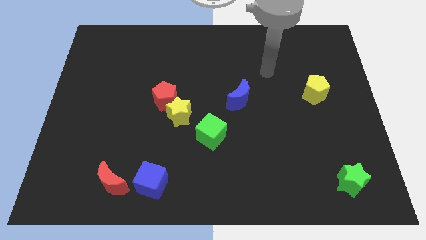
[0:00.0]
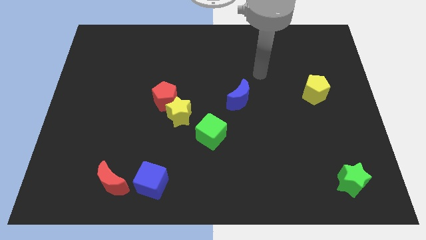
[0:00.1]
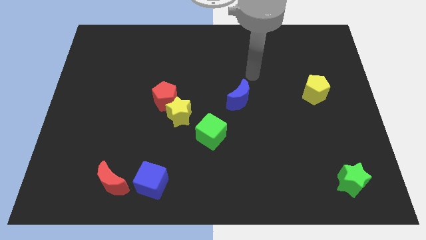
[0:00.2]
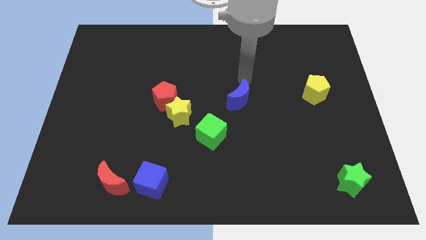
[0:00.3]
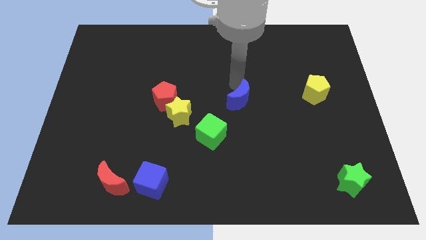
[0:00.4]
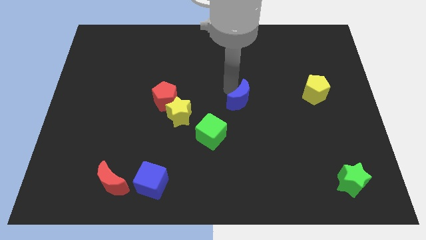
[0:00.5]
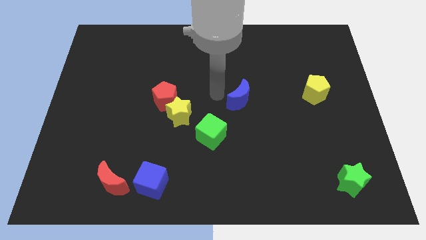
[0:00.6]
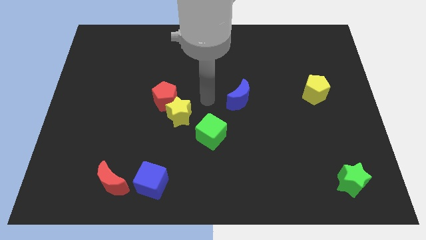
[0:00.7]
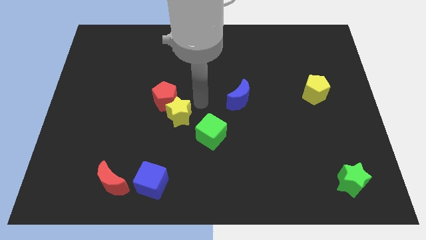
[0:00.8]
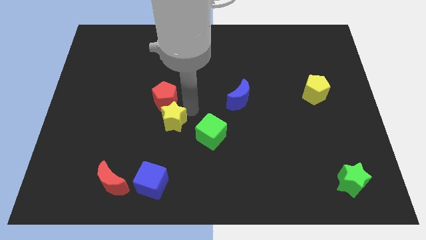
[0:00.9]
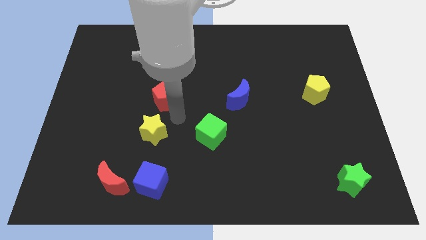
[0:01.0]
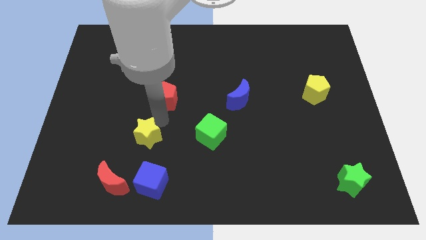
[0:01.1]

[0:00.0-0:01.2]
pull the red pentagon apart from the yellow star

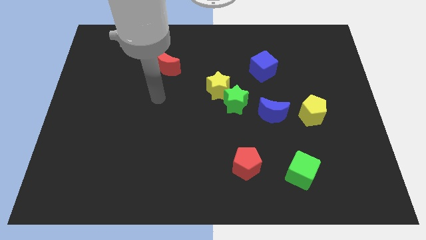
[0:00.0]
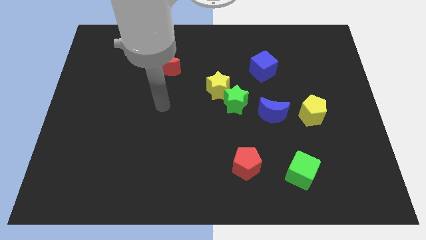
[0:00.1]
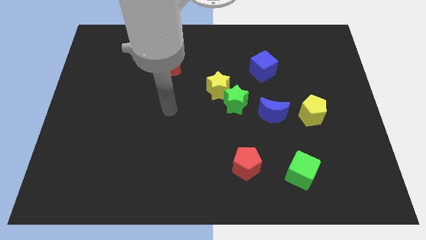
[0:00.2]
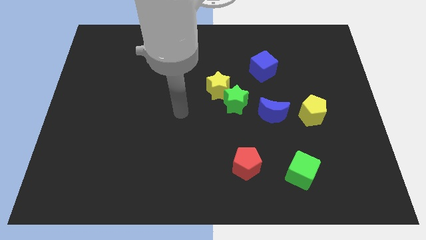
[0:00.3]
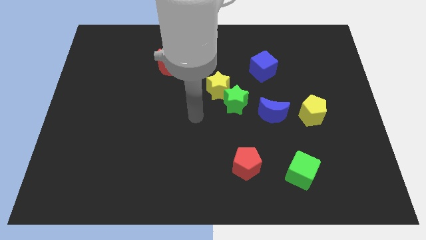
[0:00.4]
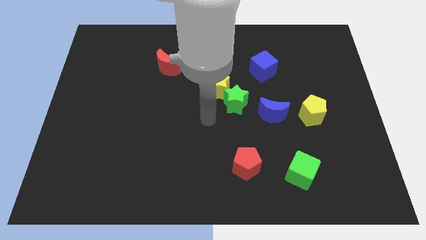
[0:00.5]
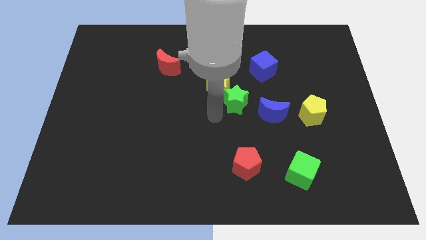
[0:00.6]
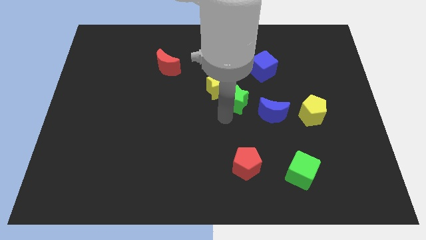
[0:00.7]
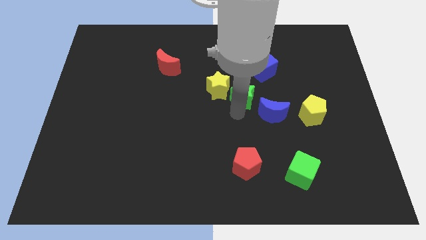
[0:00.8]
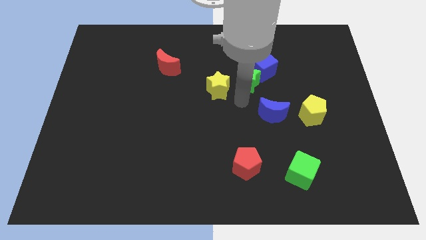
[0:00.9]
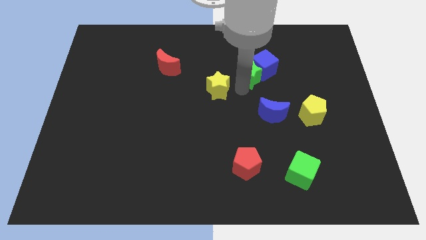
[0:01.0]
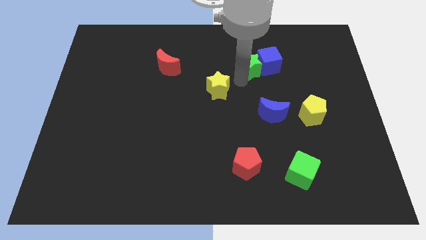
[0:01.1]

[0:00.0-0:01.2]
pull the yellow star apart from the green star

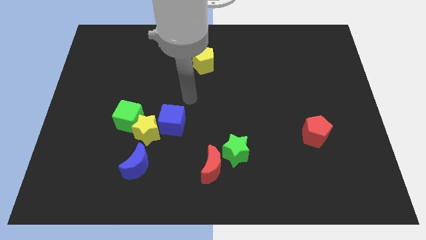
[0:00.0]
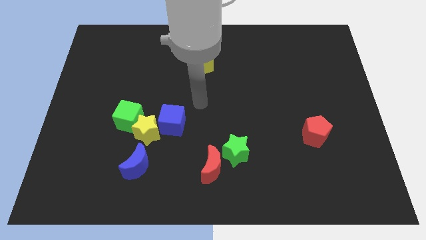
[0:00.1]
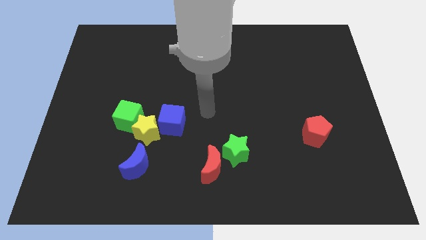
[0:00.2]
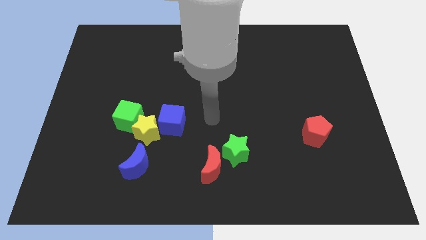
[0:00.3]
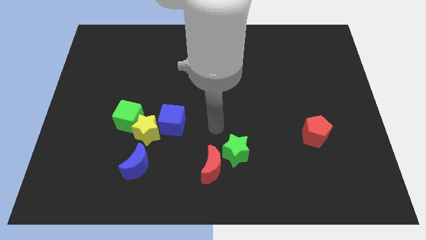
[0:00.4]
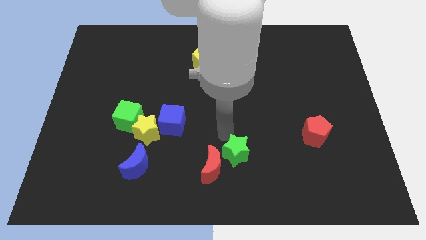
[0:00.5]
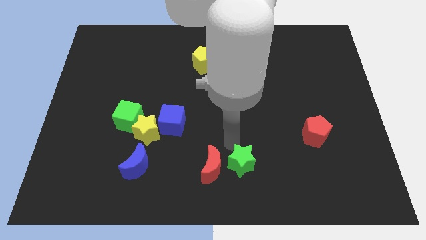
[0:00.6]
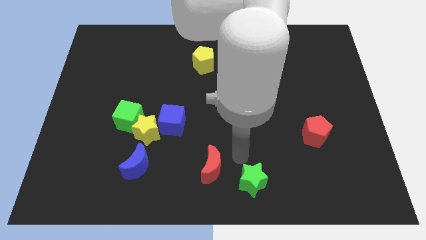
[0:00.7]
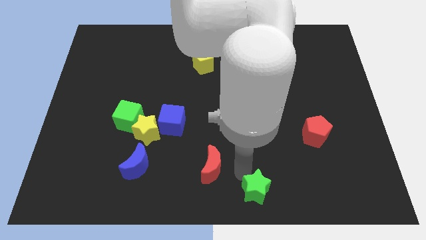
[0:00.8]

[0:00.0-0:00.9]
separate the red moon from the green star

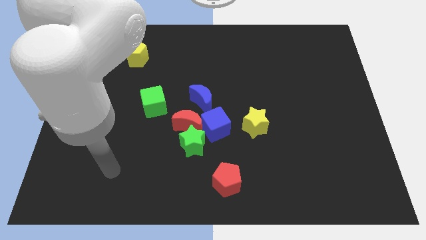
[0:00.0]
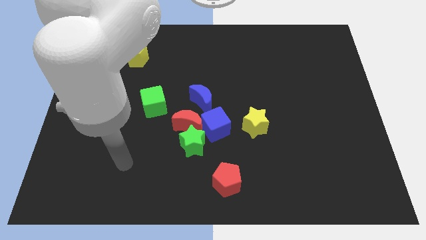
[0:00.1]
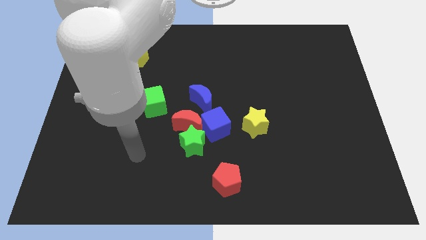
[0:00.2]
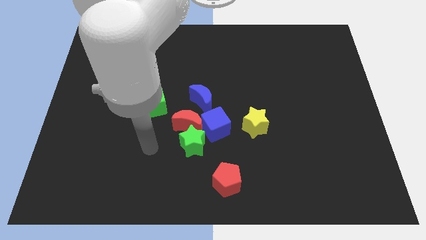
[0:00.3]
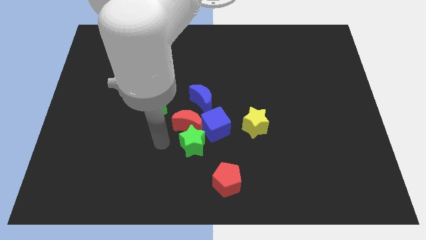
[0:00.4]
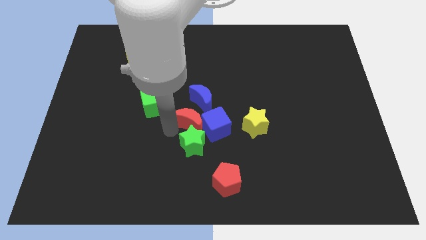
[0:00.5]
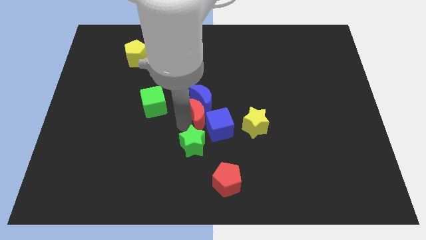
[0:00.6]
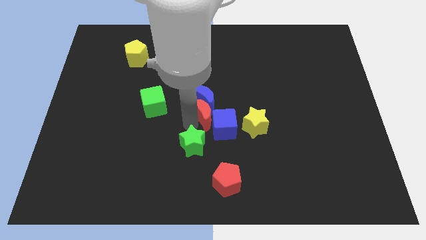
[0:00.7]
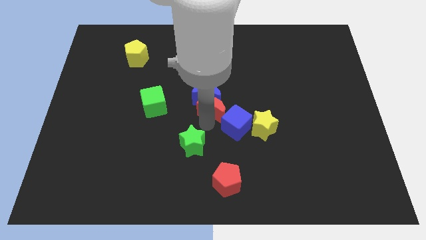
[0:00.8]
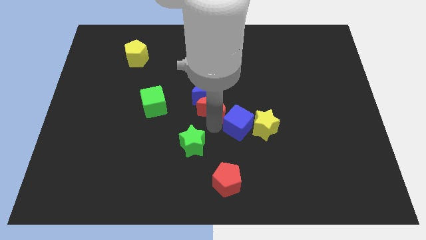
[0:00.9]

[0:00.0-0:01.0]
move the green star away from the red moon and blue cube

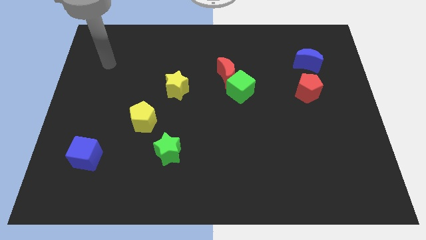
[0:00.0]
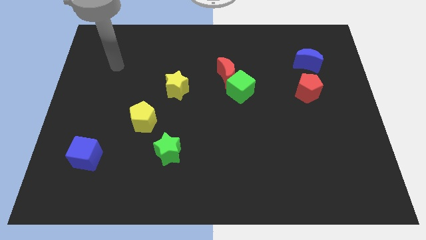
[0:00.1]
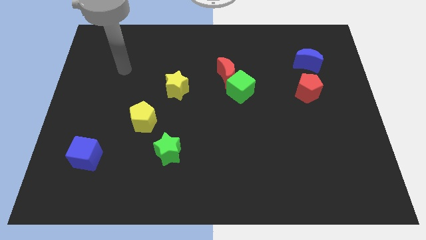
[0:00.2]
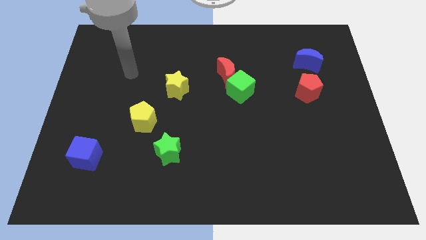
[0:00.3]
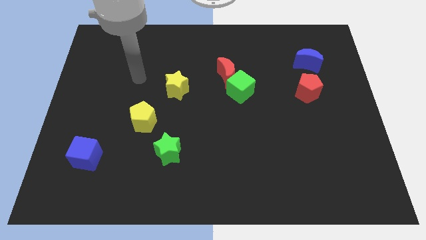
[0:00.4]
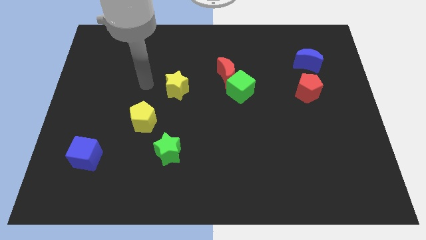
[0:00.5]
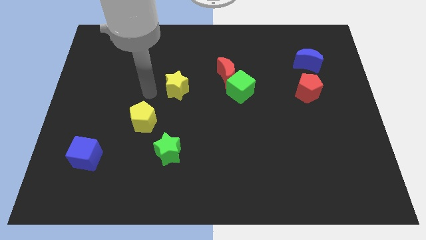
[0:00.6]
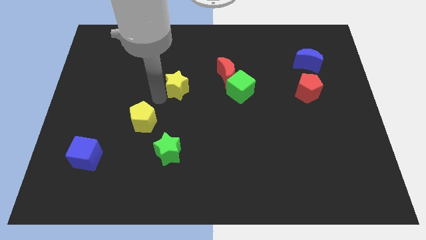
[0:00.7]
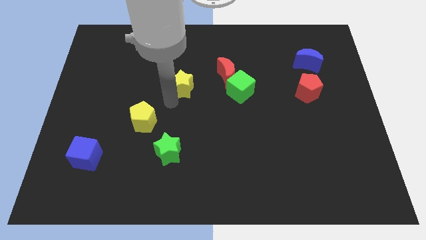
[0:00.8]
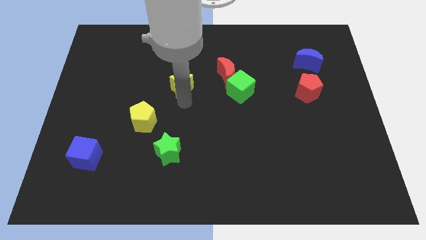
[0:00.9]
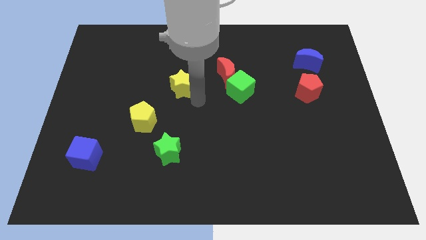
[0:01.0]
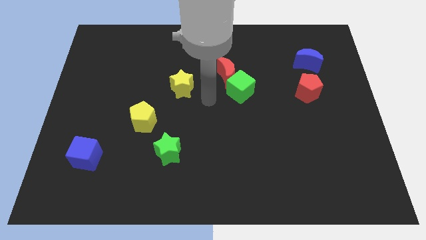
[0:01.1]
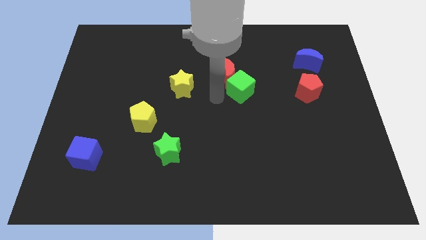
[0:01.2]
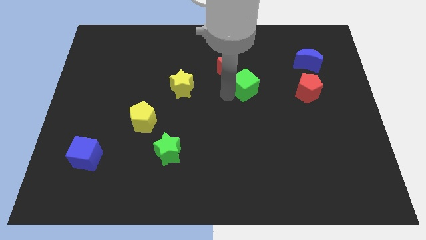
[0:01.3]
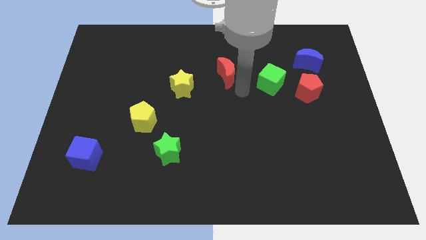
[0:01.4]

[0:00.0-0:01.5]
move the red moon away from the green cube

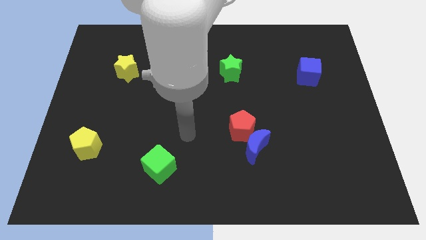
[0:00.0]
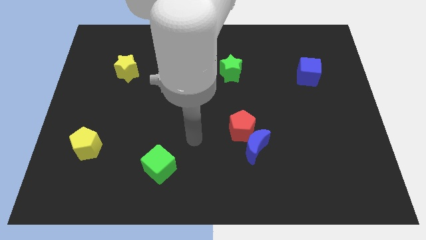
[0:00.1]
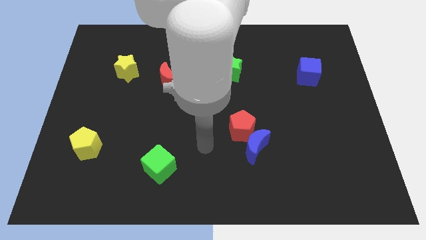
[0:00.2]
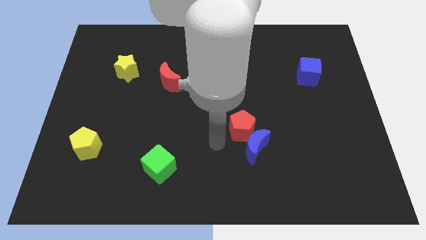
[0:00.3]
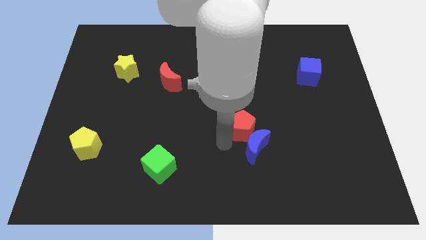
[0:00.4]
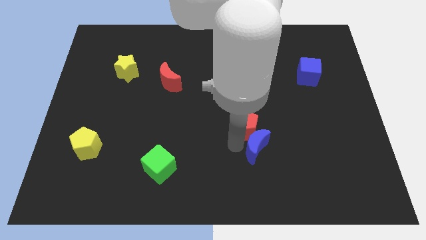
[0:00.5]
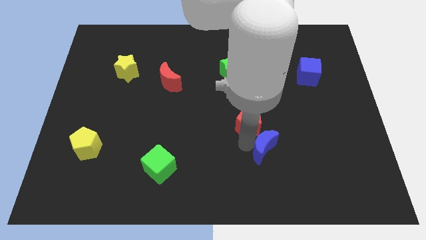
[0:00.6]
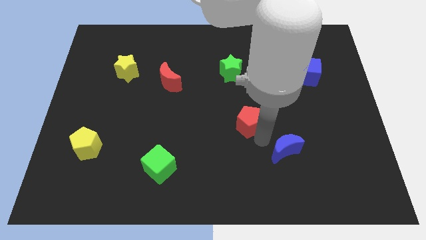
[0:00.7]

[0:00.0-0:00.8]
move the red pentagon away from the blue moon

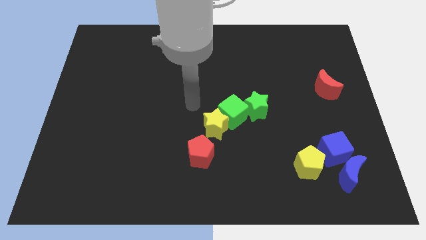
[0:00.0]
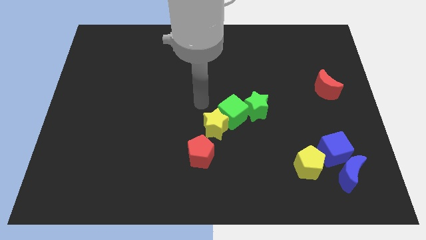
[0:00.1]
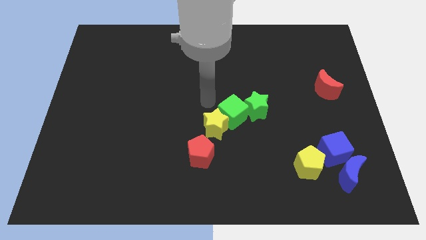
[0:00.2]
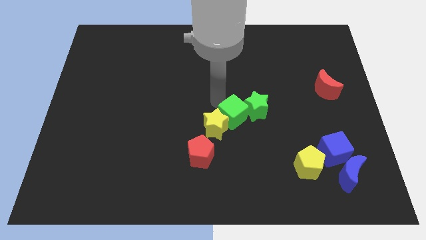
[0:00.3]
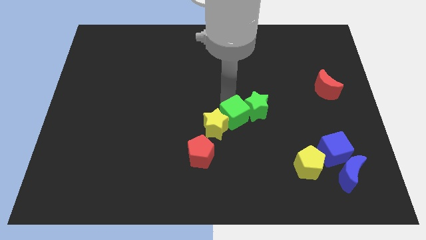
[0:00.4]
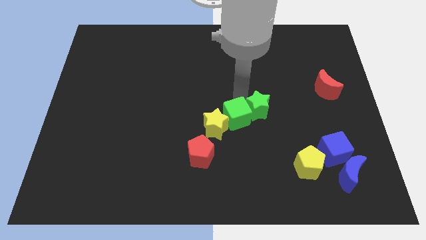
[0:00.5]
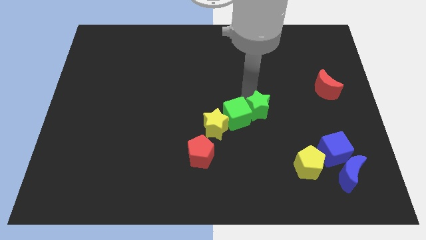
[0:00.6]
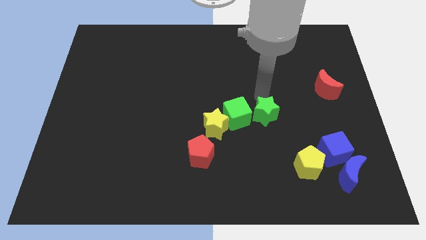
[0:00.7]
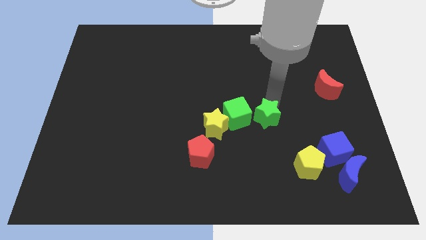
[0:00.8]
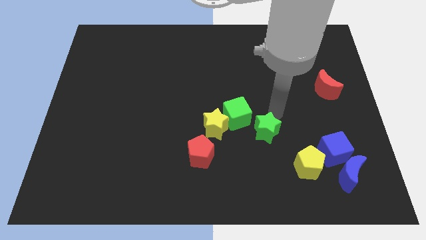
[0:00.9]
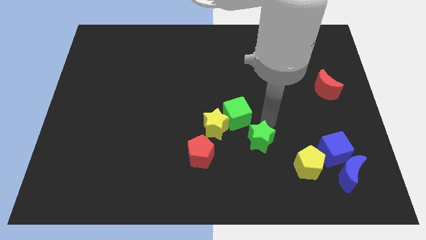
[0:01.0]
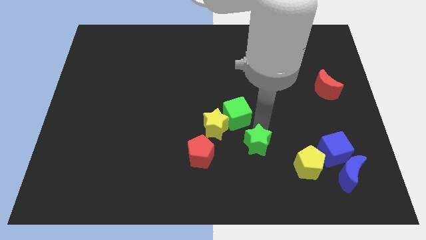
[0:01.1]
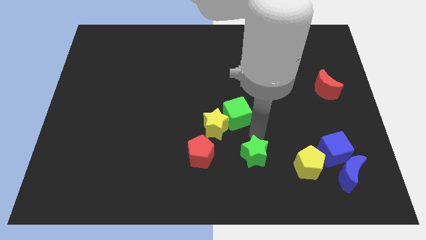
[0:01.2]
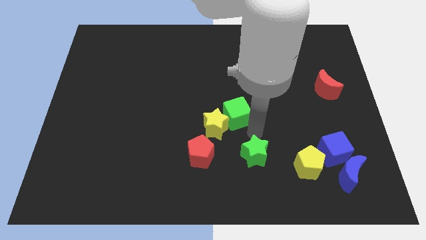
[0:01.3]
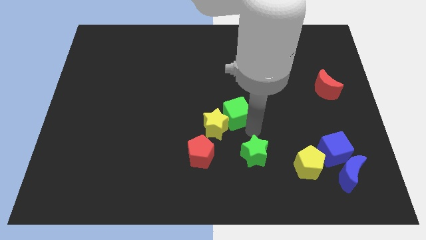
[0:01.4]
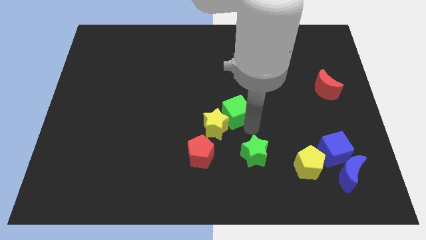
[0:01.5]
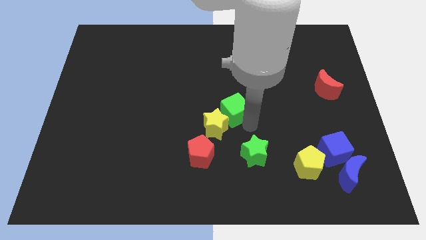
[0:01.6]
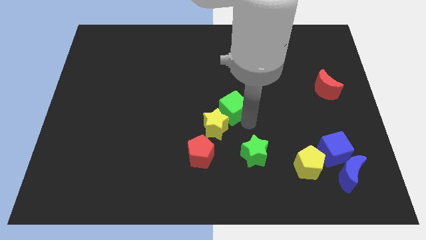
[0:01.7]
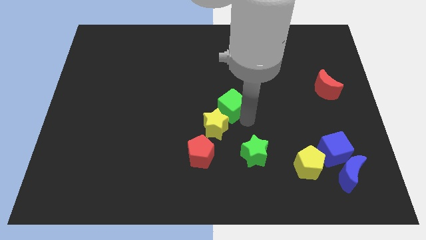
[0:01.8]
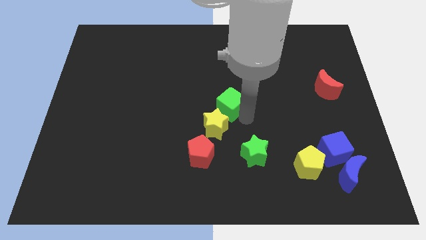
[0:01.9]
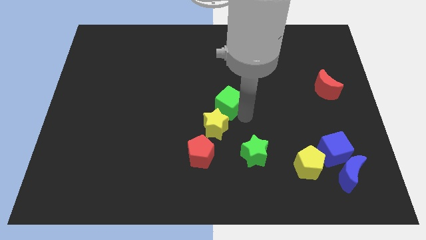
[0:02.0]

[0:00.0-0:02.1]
separate the green cube from the yellow star and green star

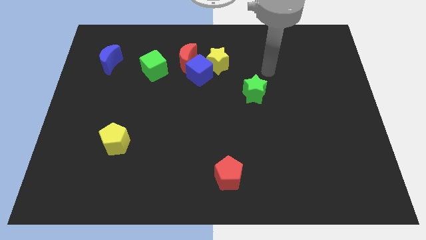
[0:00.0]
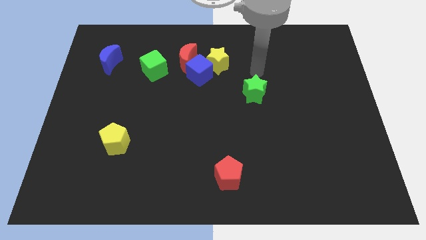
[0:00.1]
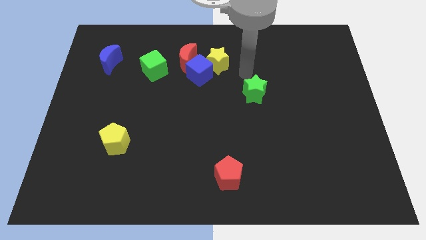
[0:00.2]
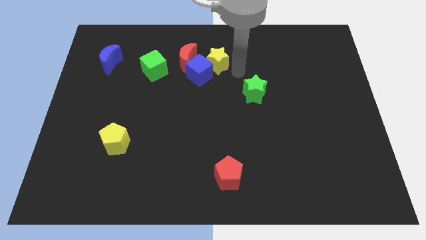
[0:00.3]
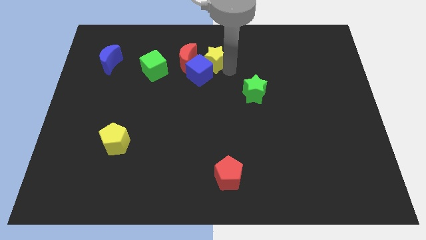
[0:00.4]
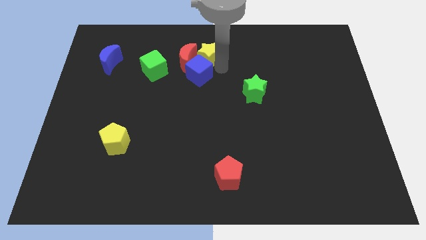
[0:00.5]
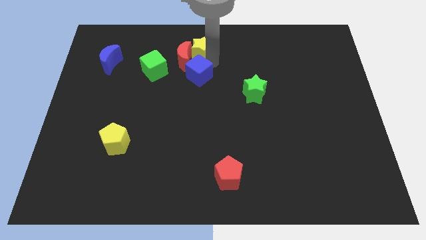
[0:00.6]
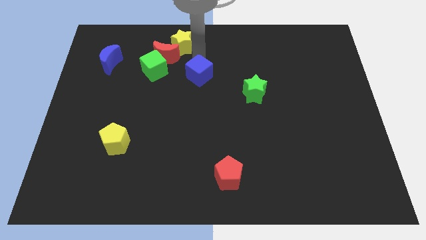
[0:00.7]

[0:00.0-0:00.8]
pull the blue cube apart from the yellow star and red moon
